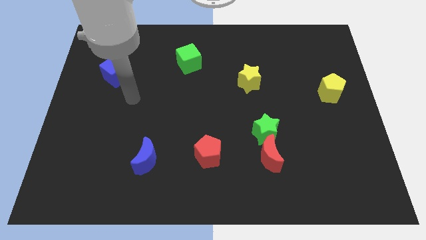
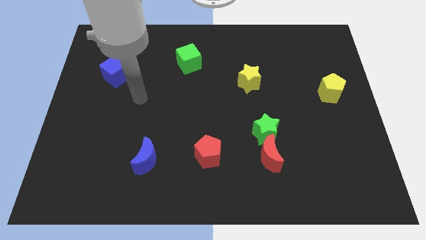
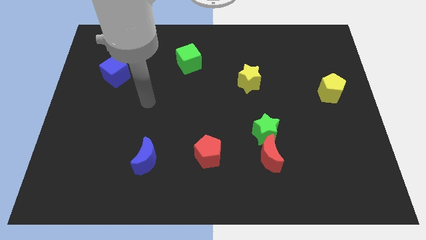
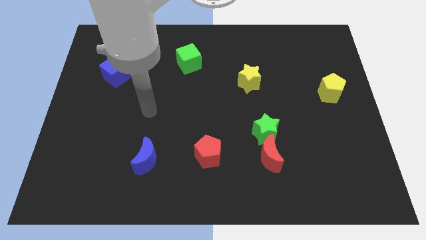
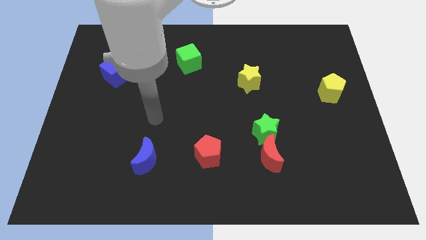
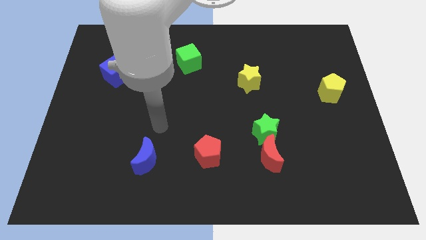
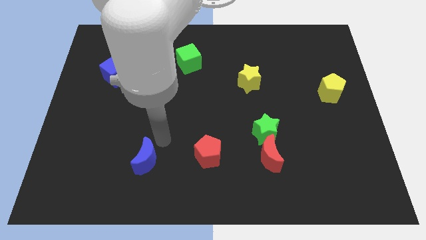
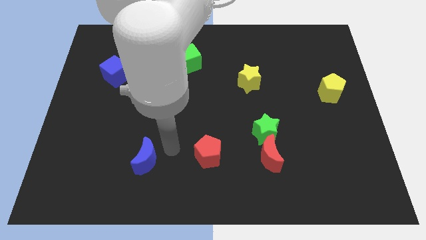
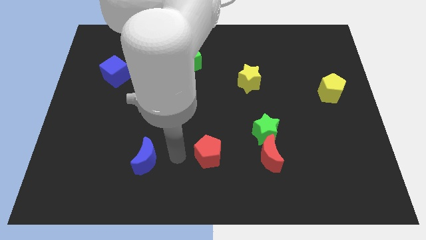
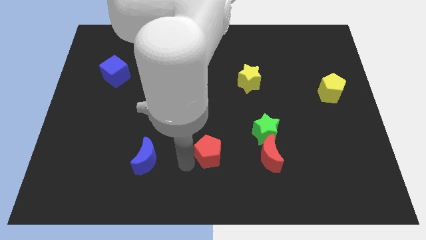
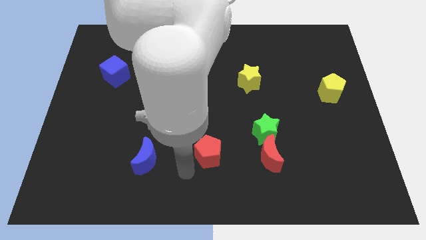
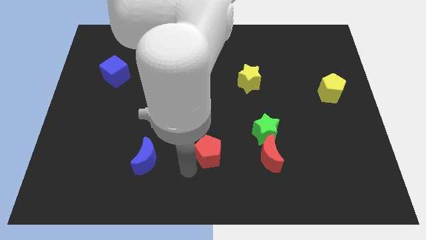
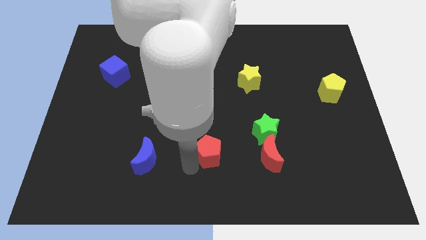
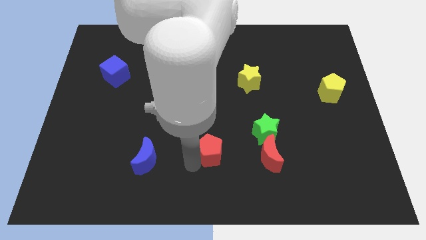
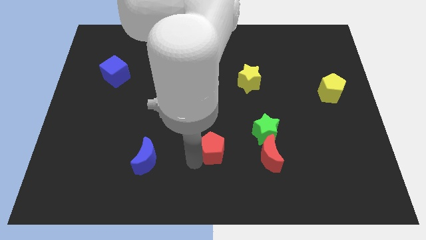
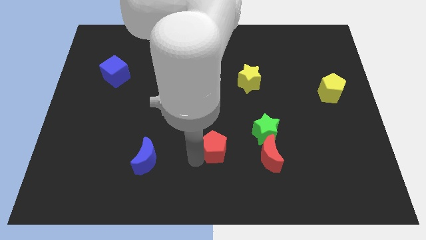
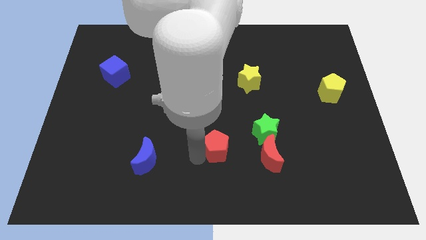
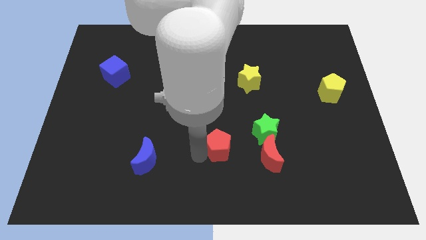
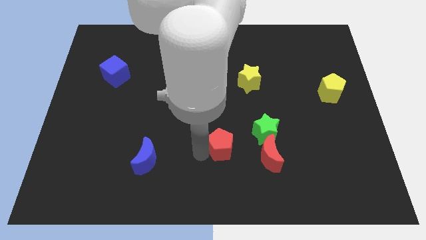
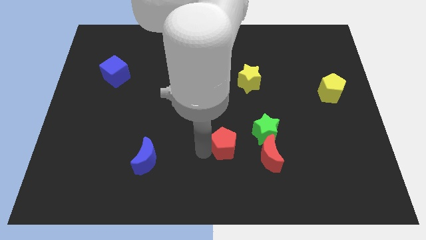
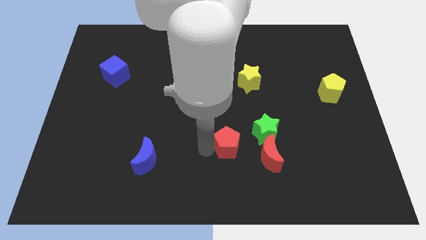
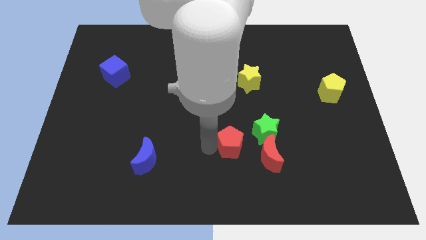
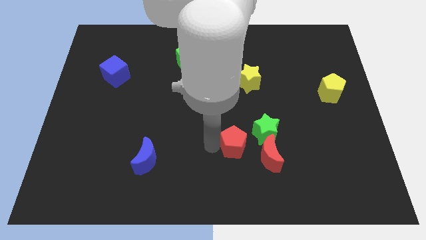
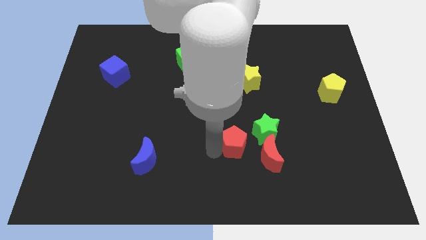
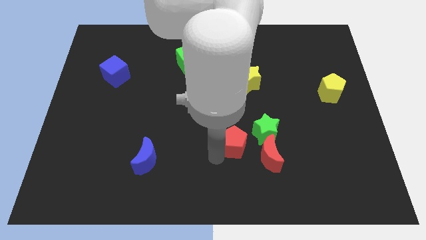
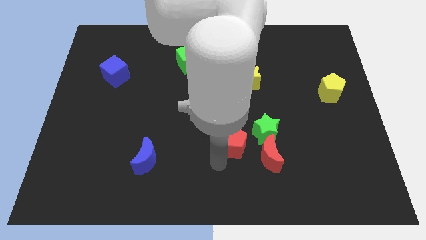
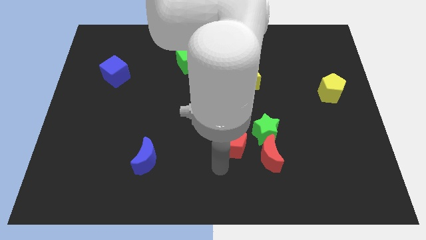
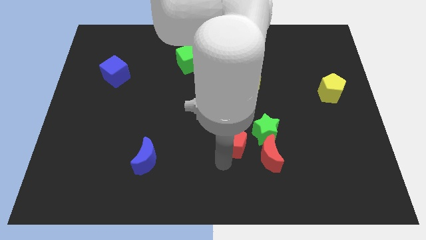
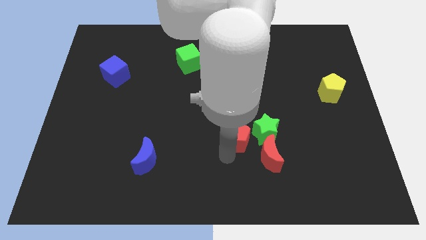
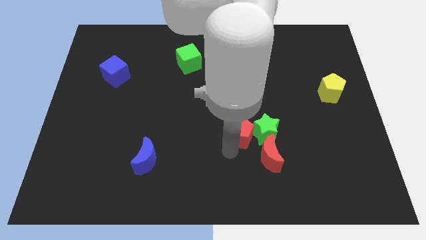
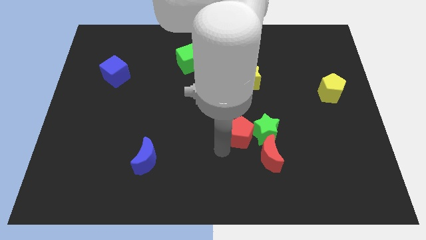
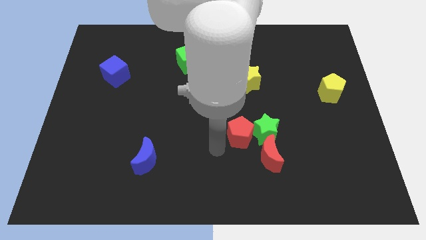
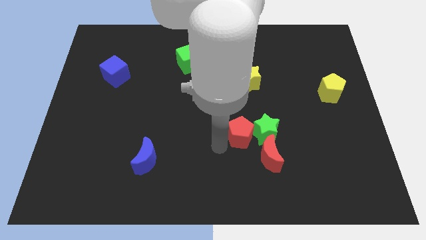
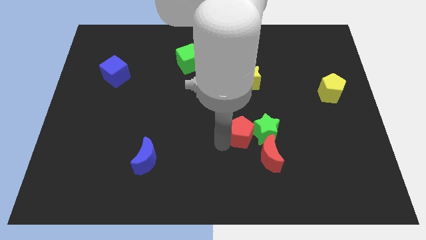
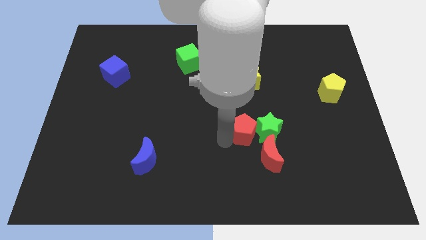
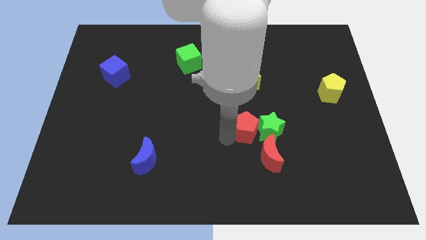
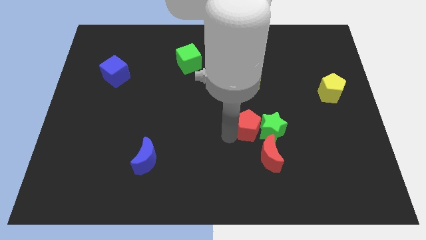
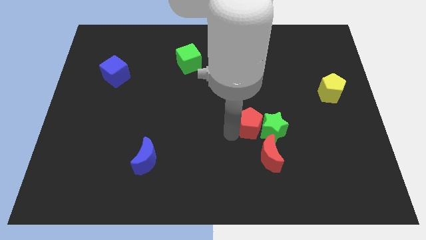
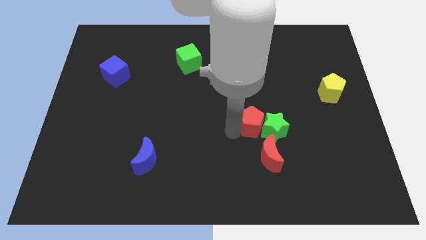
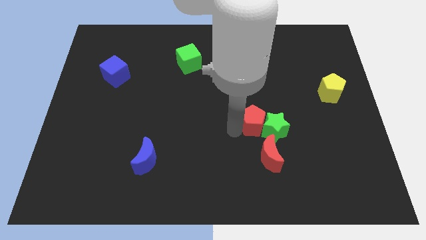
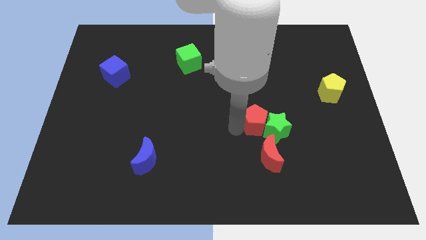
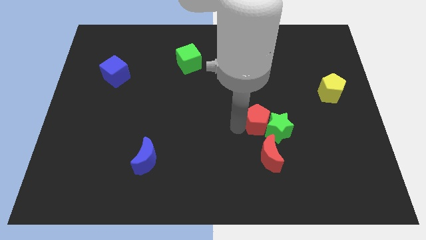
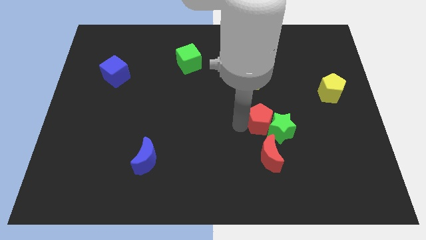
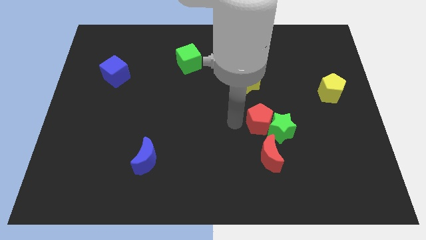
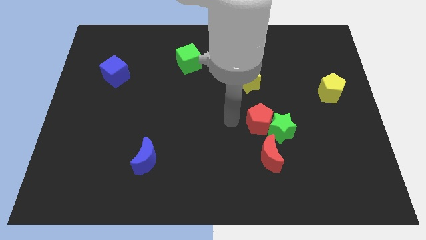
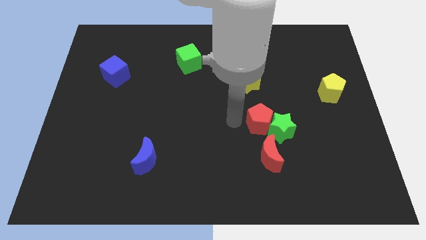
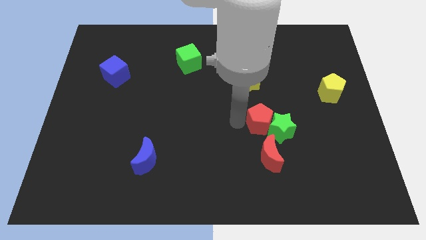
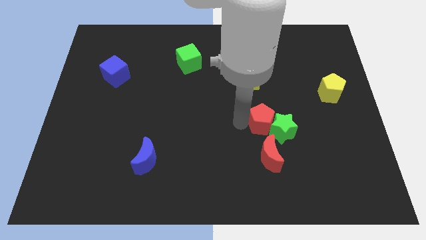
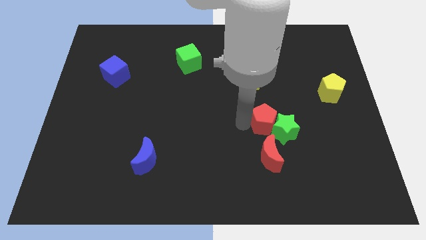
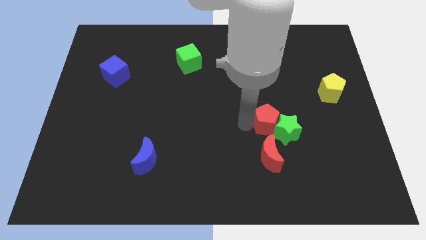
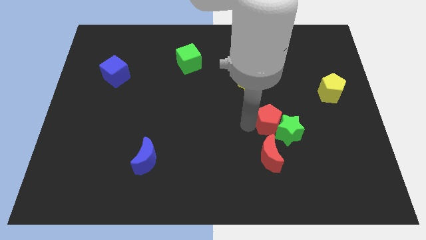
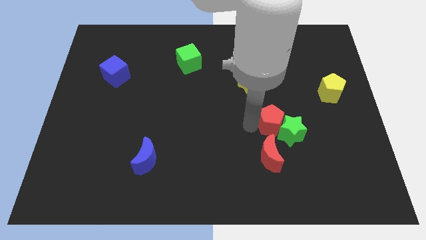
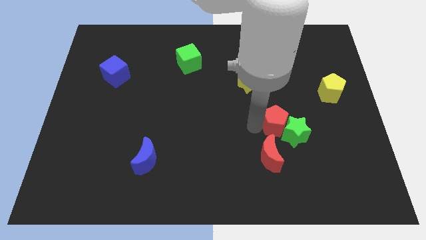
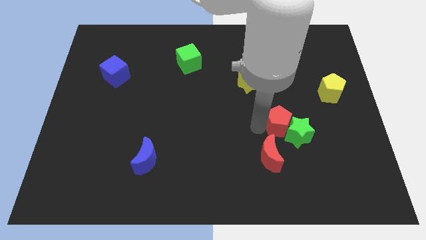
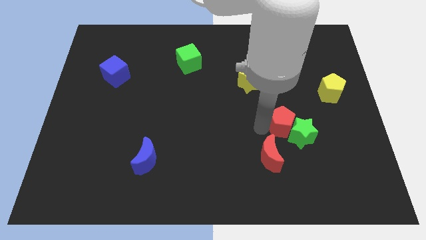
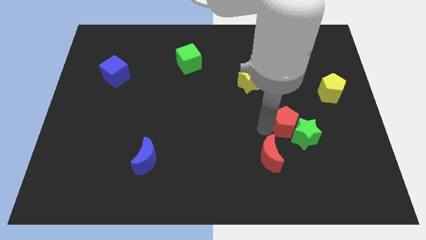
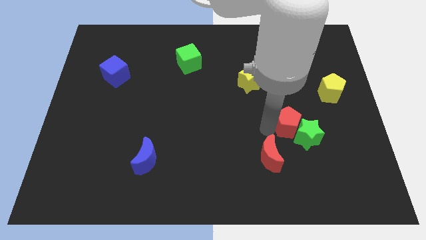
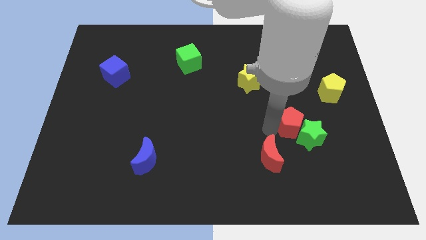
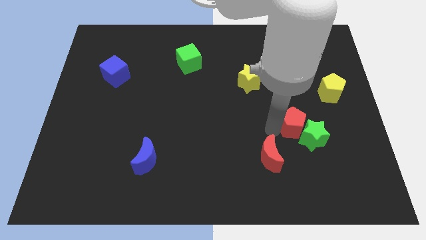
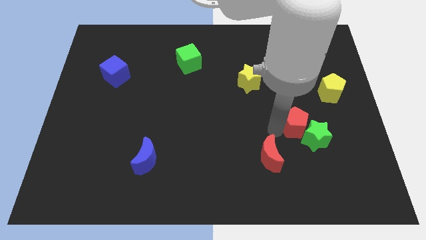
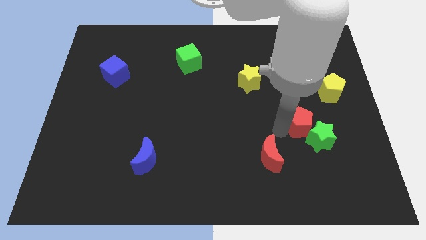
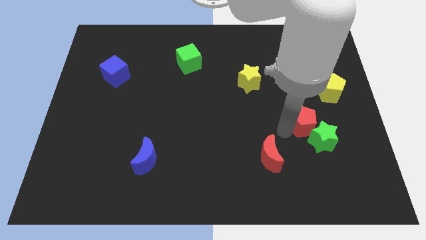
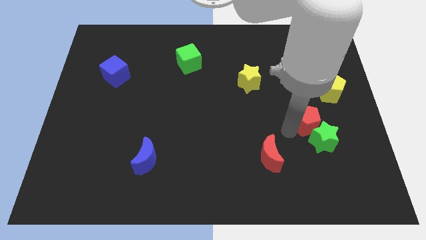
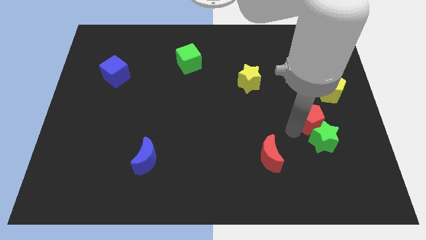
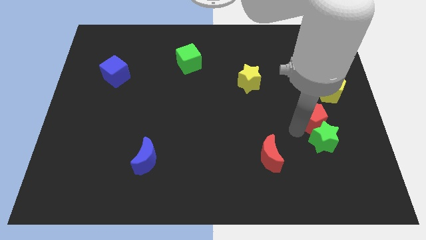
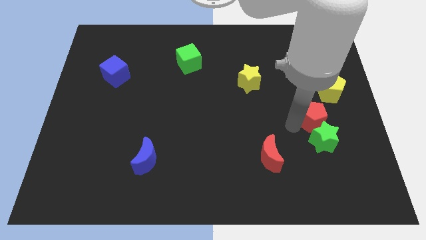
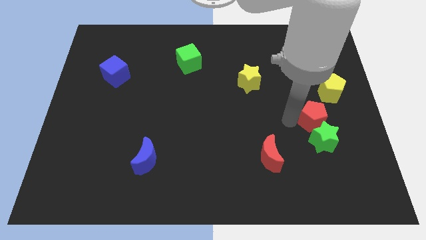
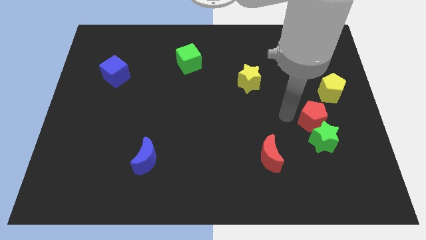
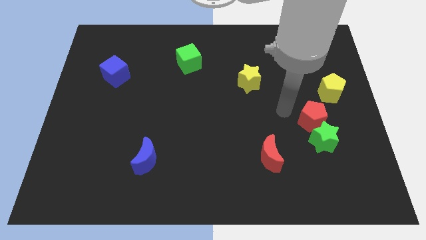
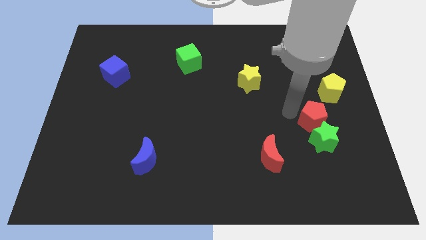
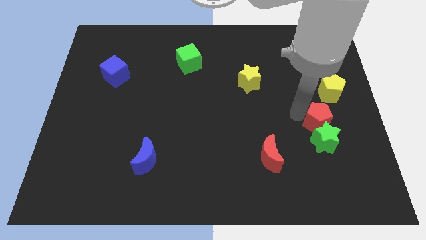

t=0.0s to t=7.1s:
push the red pentagon to the bottom of the yellow pentagon
